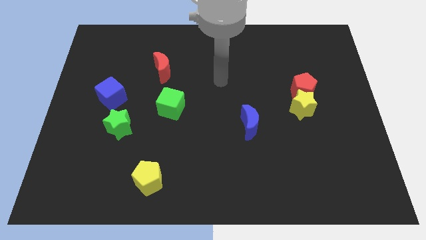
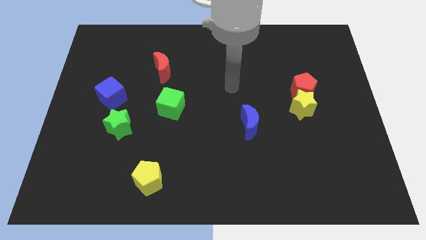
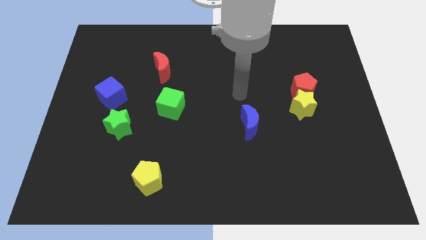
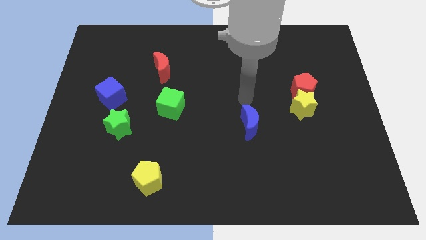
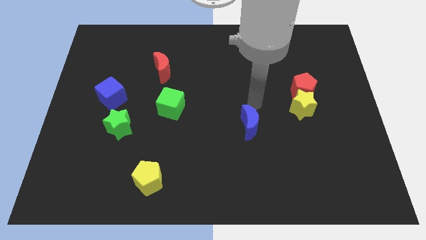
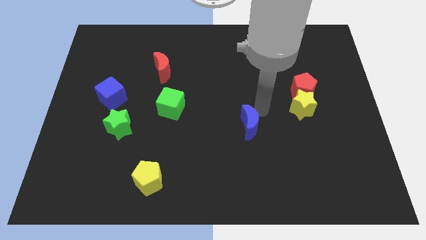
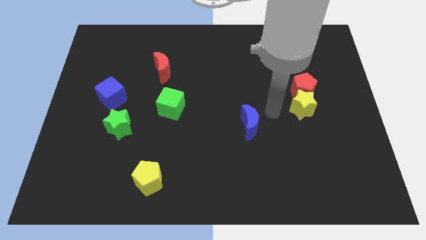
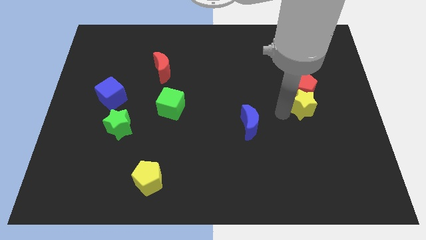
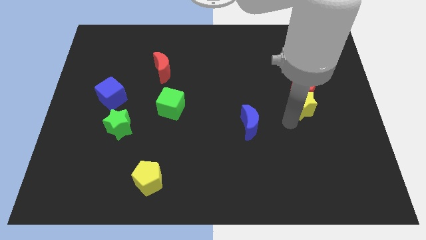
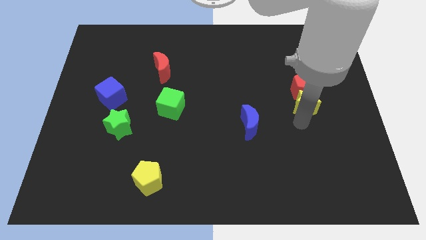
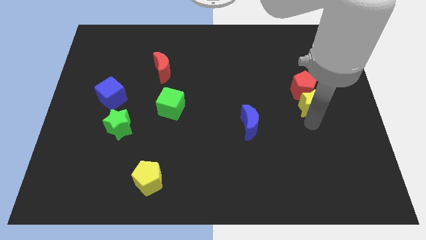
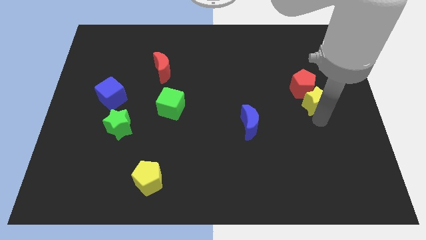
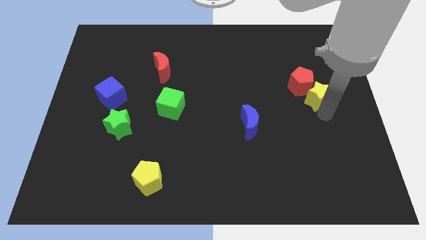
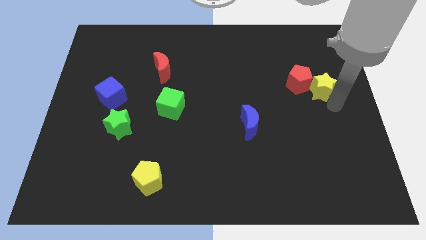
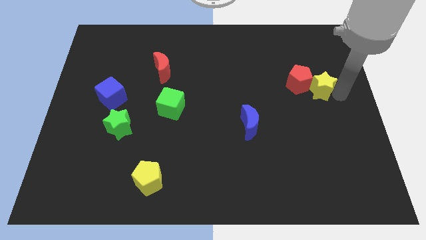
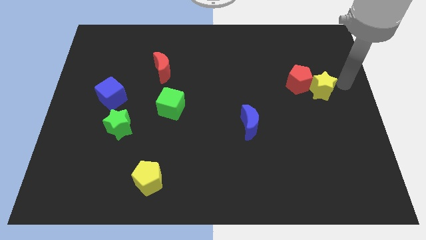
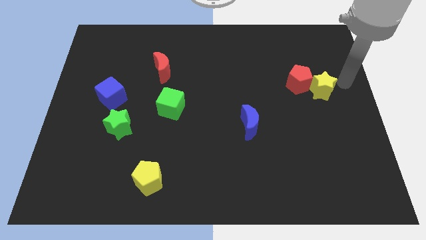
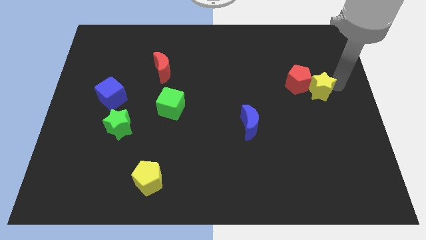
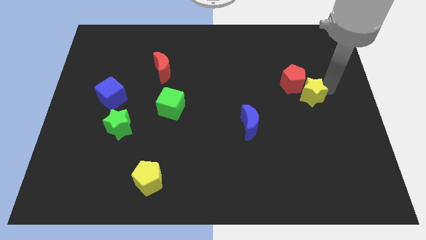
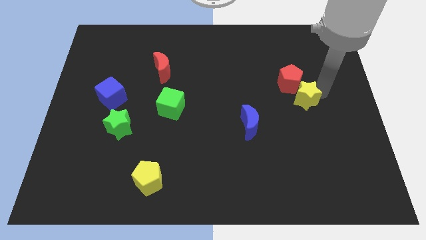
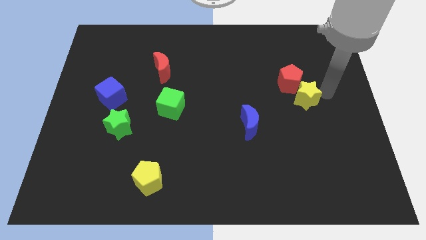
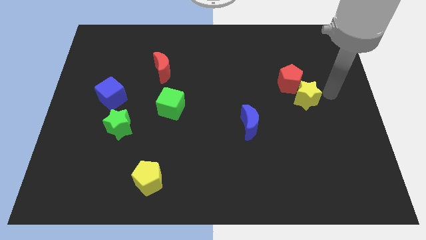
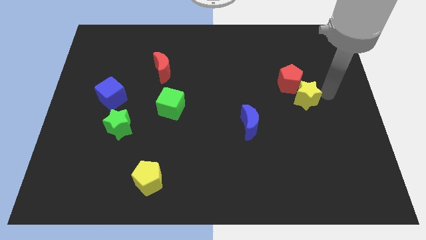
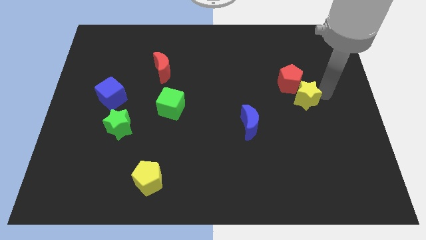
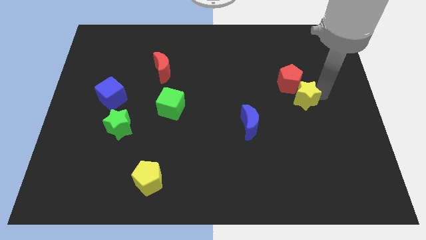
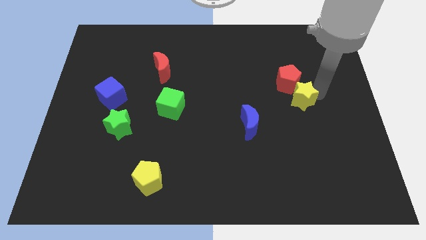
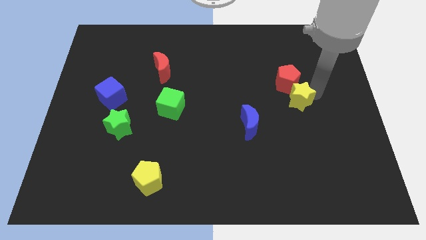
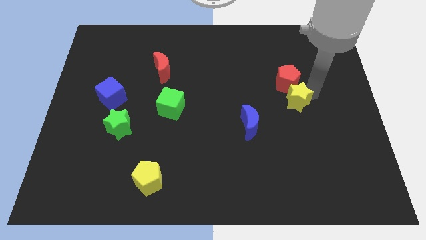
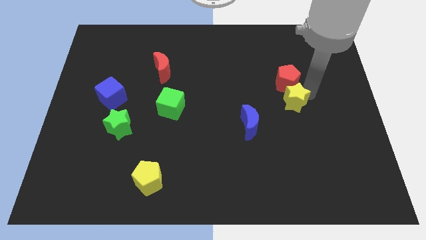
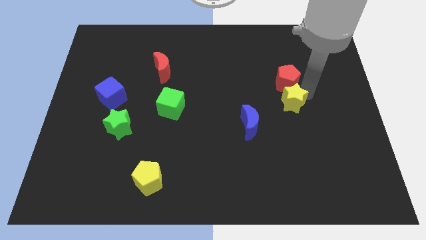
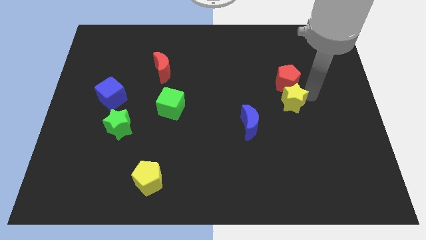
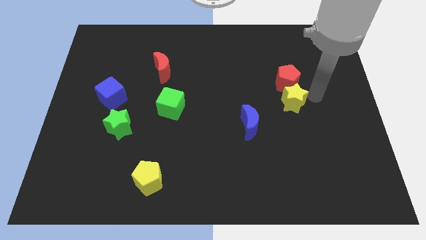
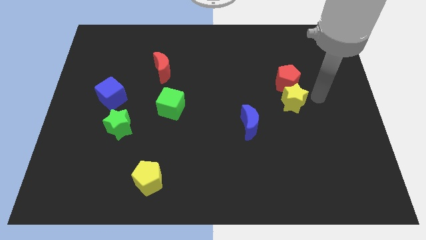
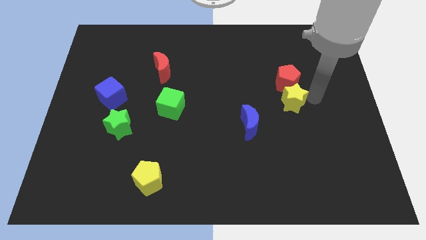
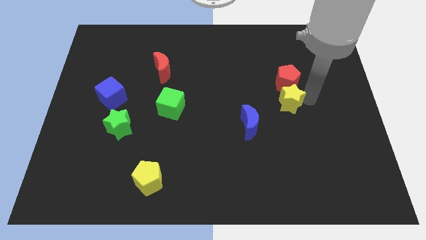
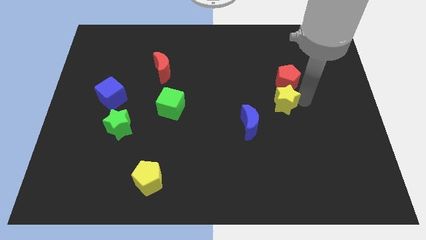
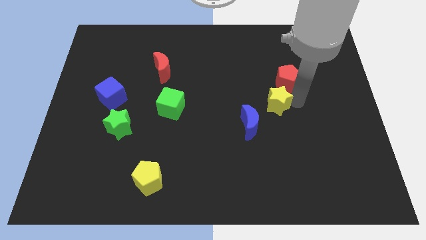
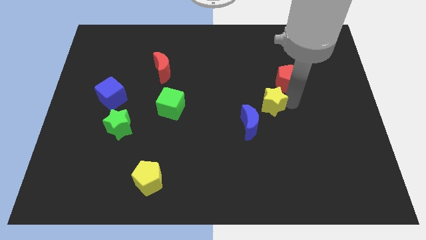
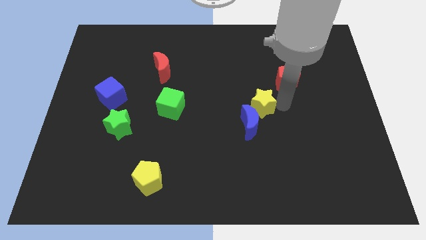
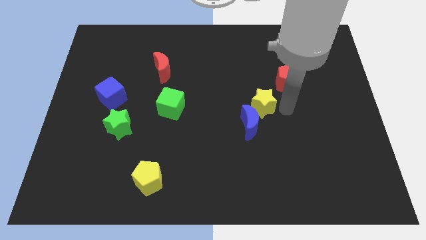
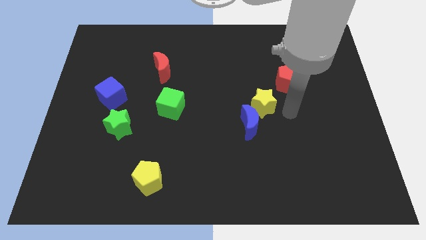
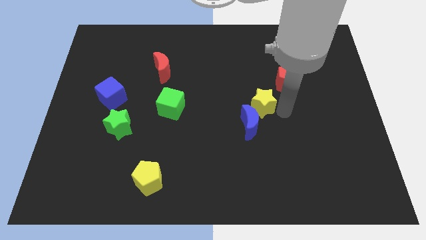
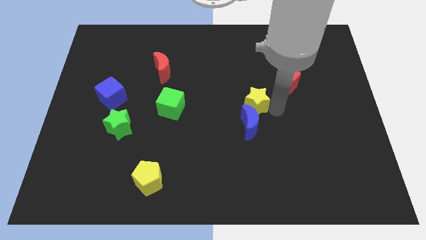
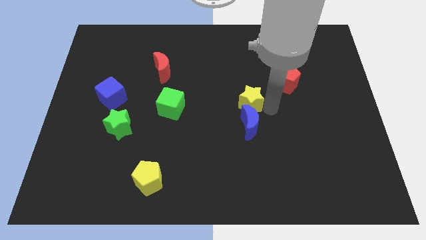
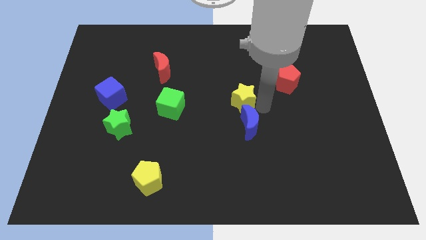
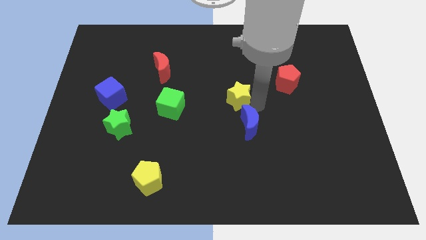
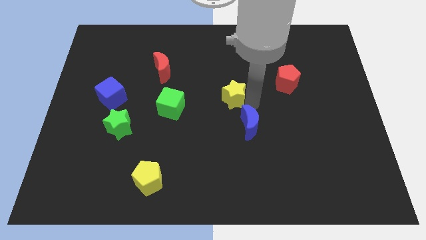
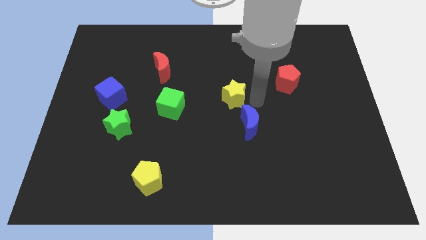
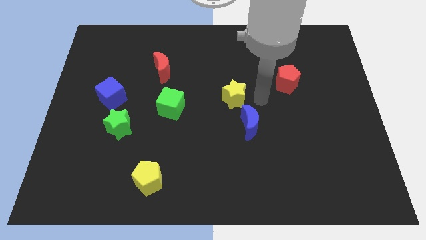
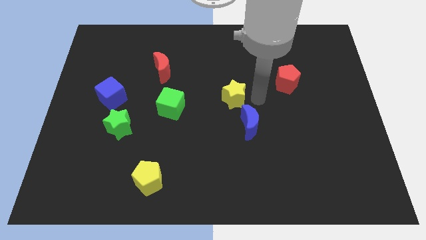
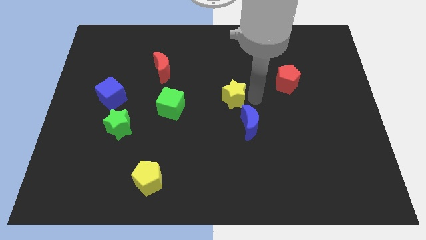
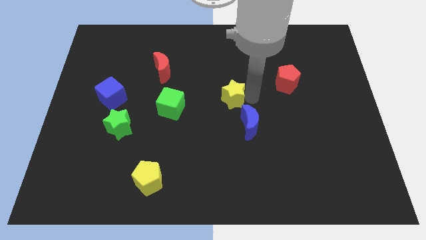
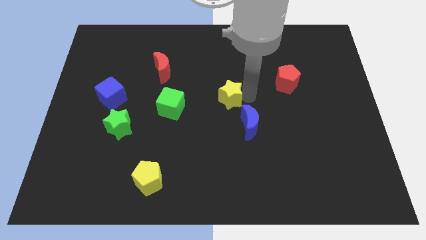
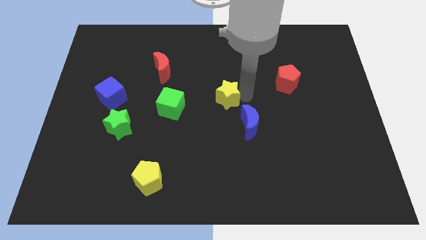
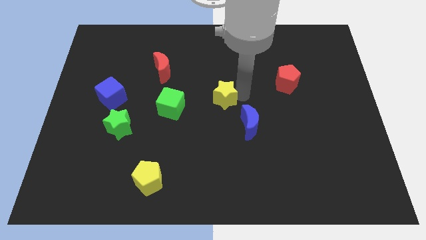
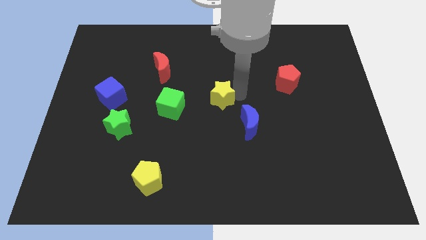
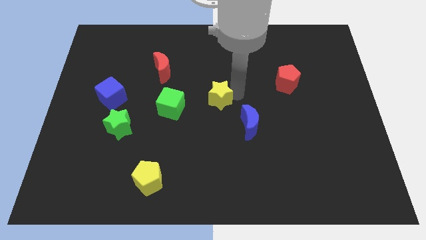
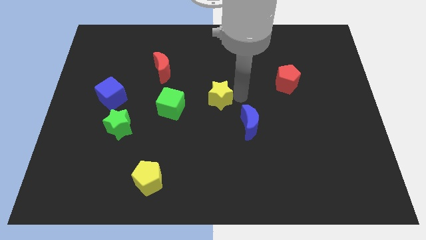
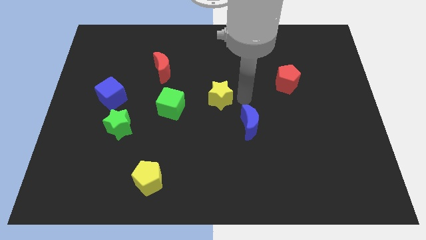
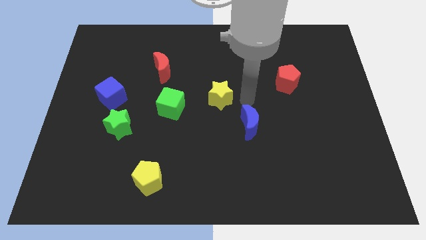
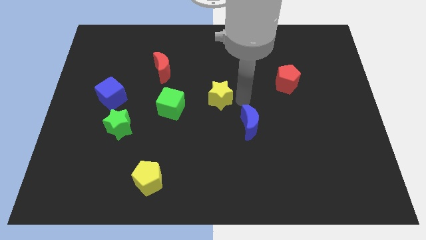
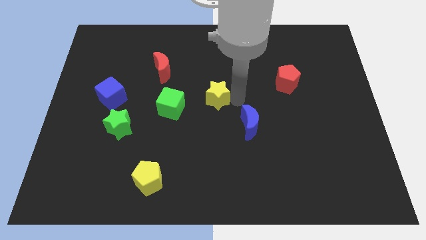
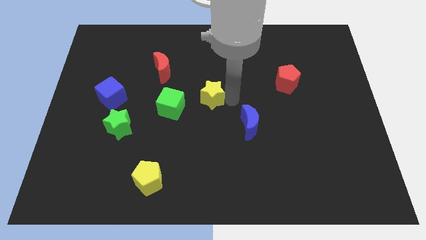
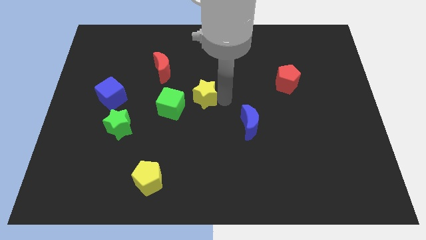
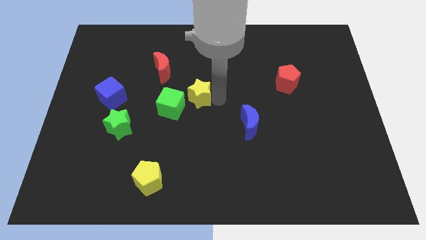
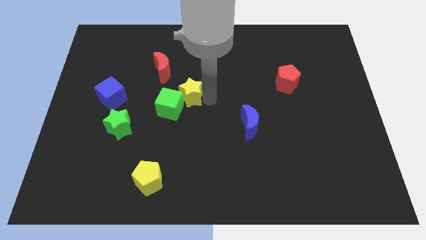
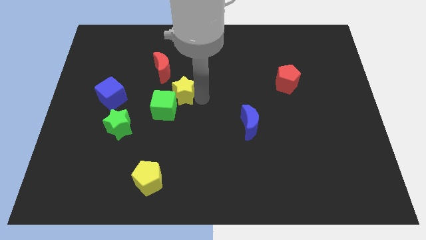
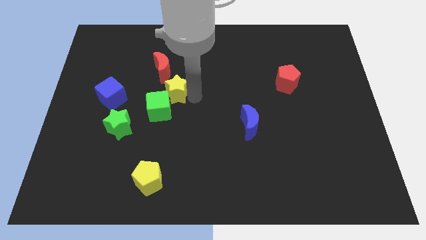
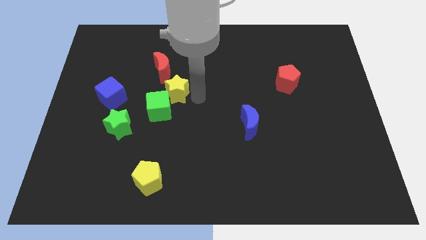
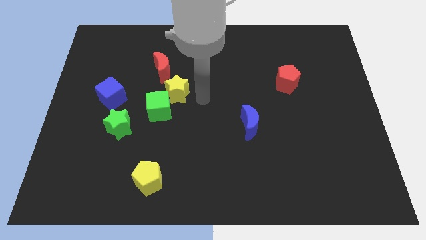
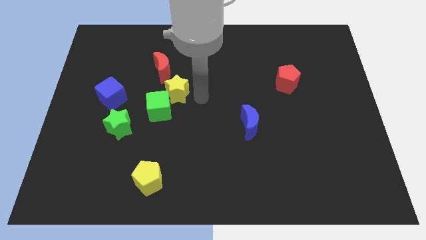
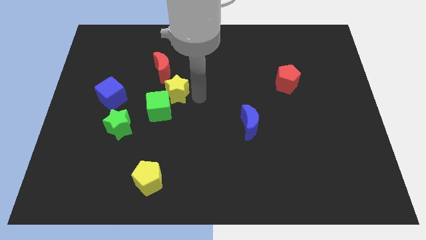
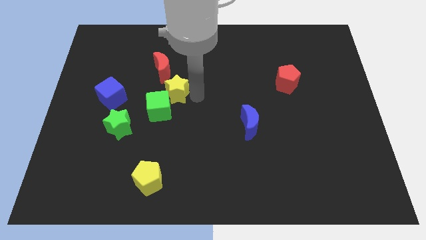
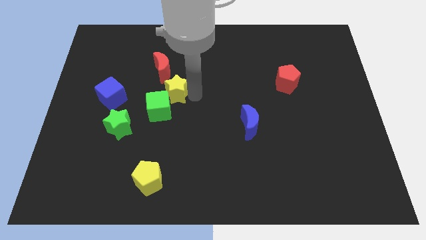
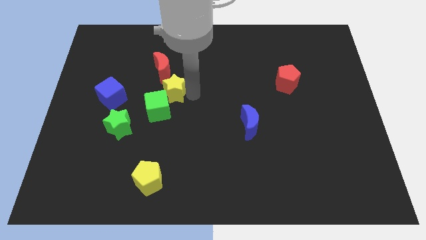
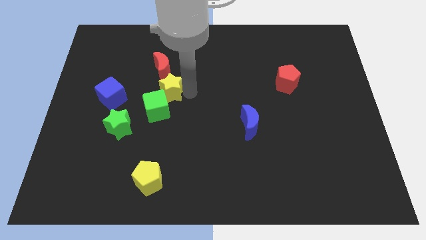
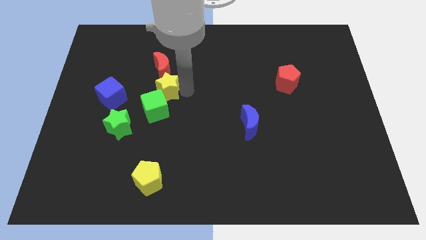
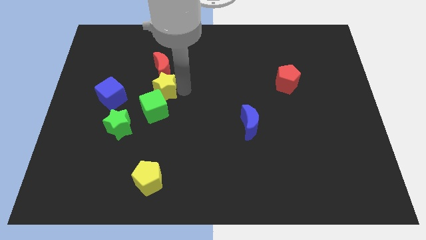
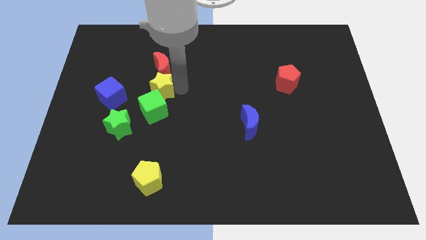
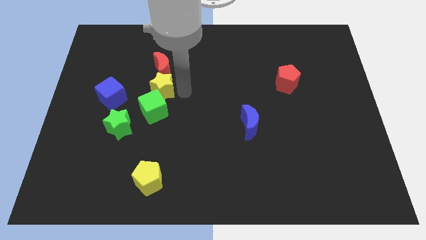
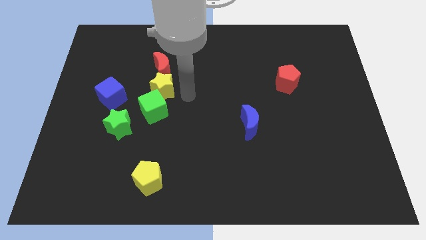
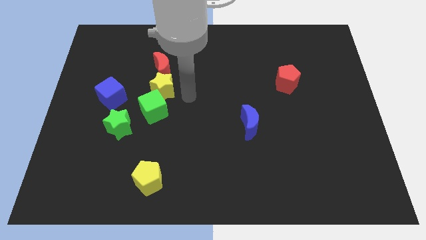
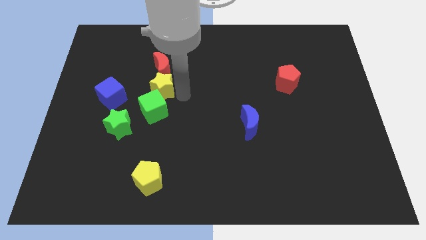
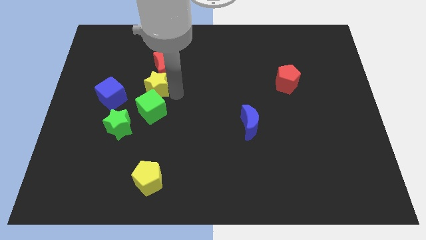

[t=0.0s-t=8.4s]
push the yellow star to the bottom left of the red moon
